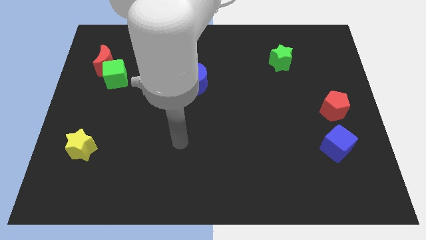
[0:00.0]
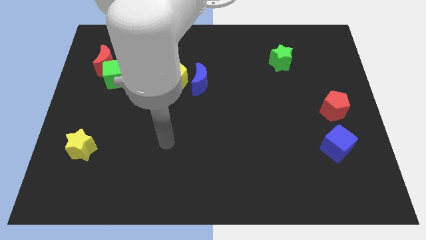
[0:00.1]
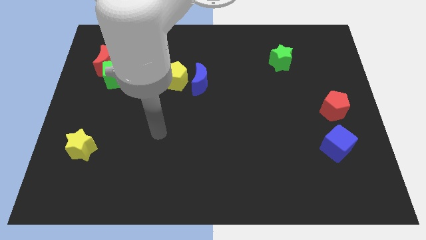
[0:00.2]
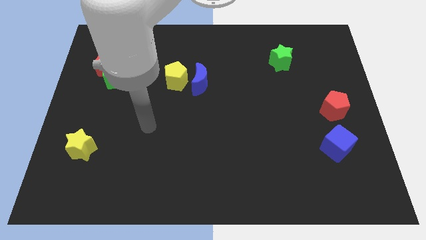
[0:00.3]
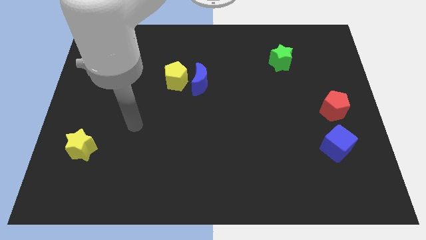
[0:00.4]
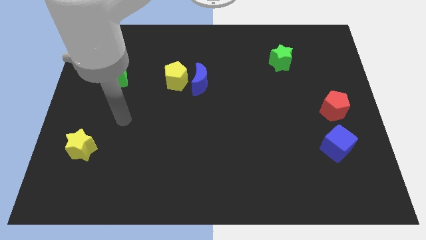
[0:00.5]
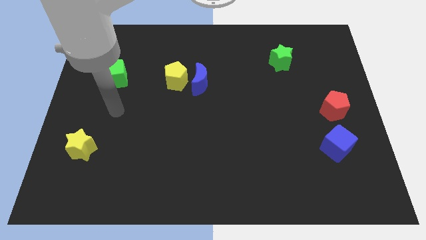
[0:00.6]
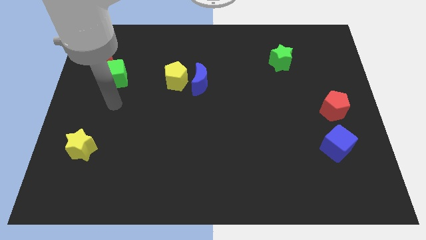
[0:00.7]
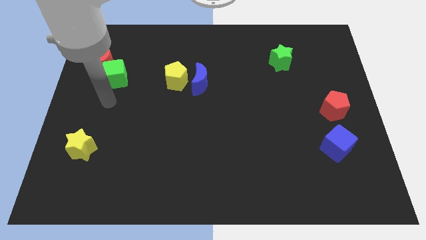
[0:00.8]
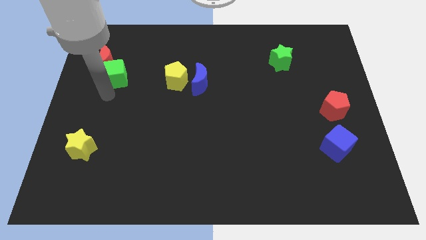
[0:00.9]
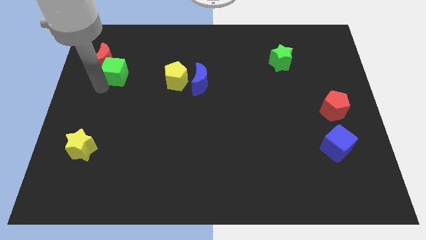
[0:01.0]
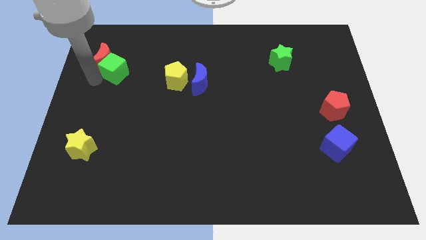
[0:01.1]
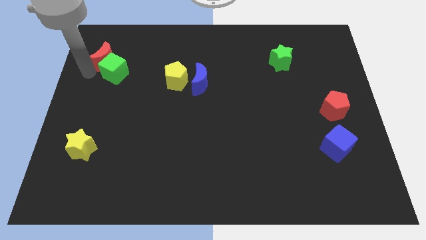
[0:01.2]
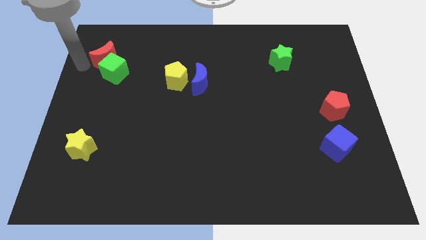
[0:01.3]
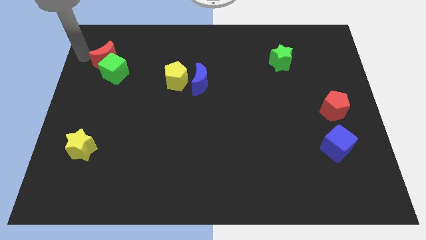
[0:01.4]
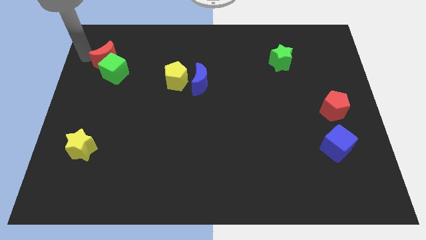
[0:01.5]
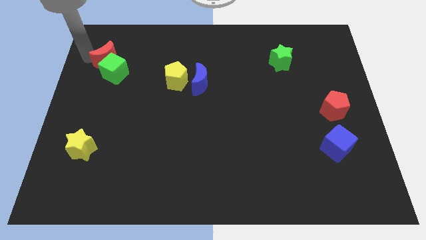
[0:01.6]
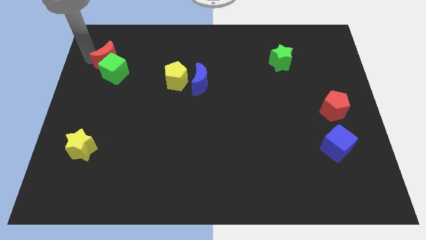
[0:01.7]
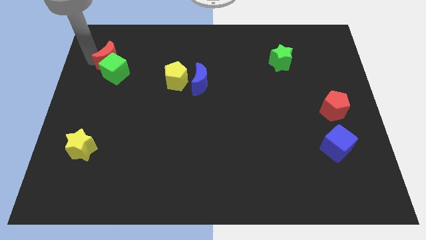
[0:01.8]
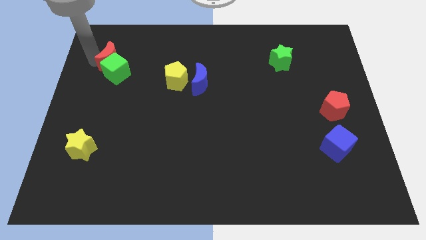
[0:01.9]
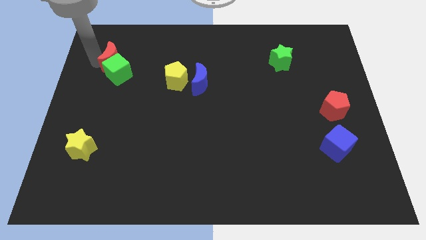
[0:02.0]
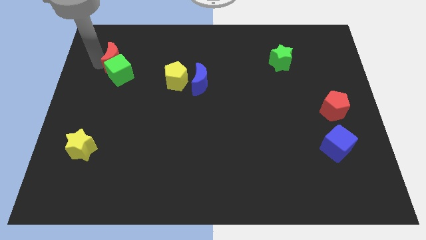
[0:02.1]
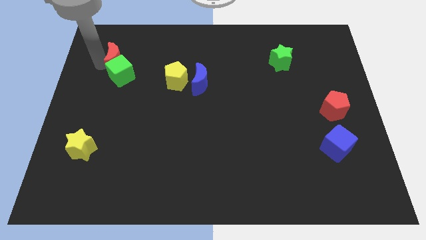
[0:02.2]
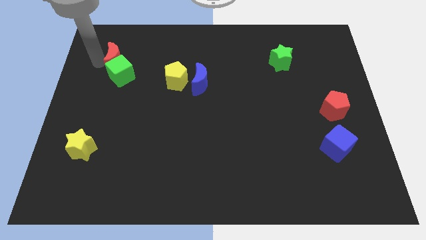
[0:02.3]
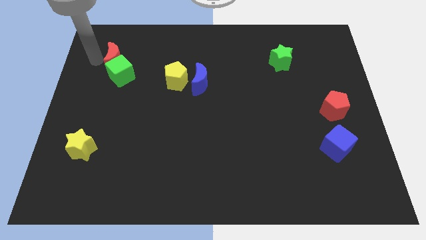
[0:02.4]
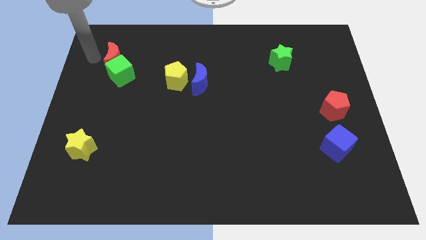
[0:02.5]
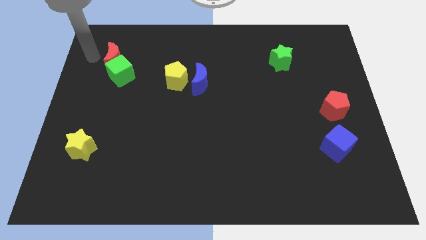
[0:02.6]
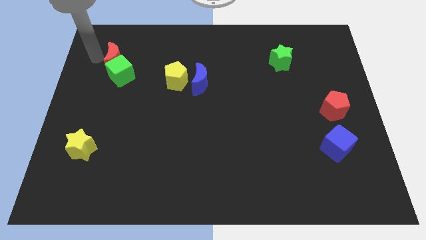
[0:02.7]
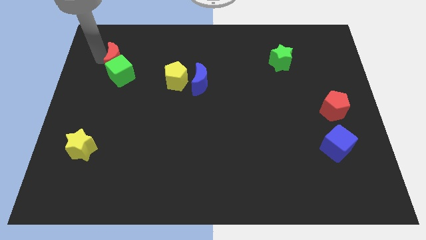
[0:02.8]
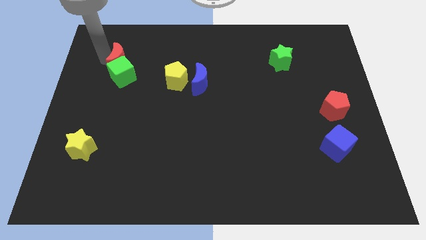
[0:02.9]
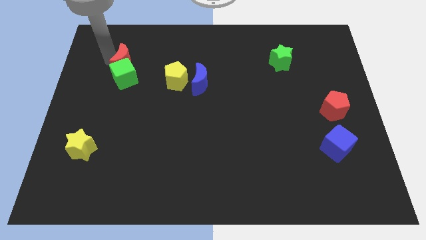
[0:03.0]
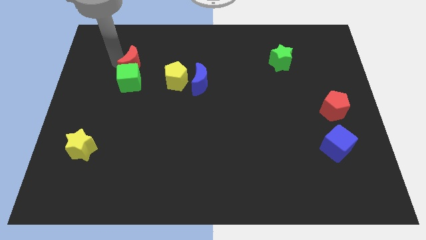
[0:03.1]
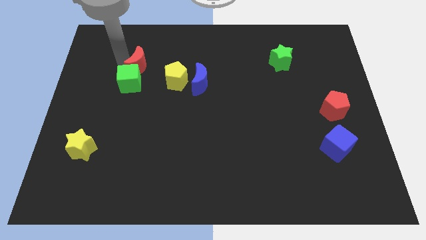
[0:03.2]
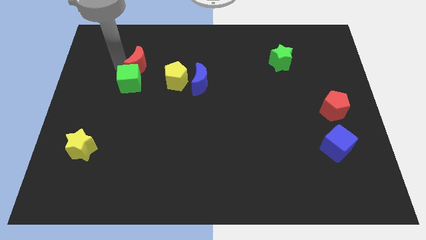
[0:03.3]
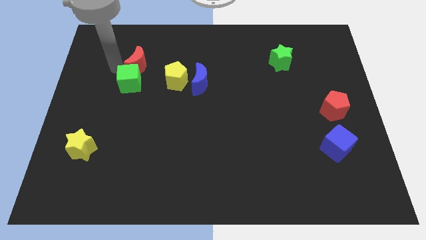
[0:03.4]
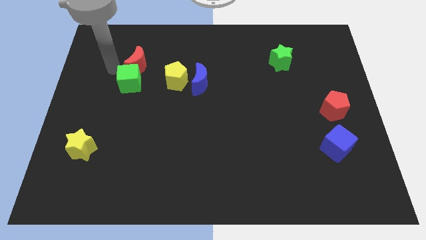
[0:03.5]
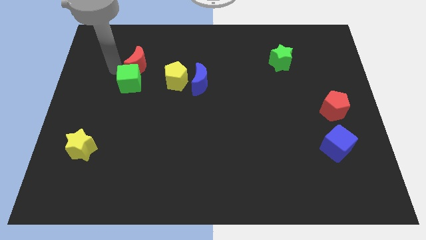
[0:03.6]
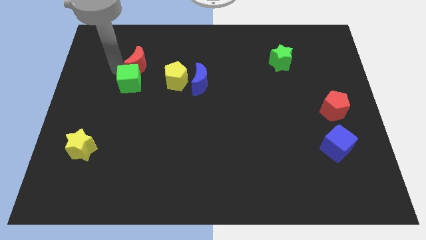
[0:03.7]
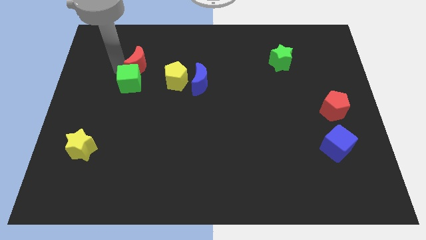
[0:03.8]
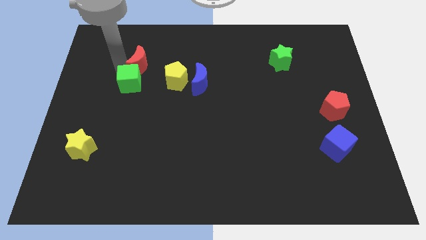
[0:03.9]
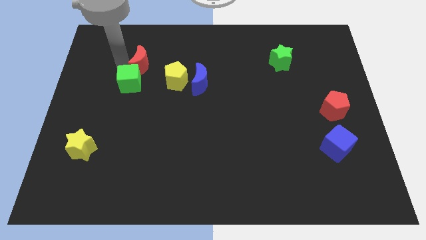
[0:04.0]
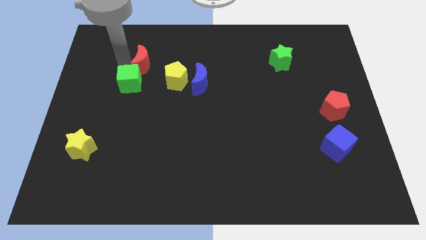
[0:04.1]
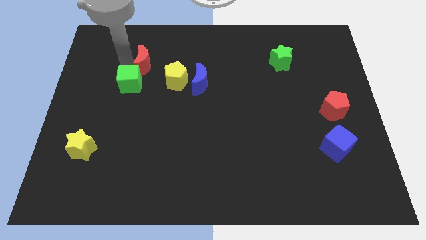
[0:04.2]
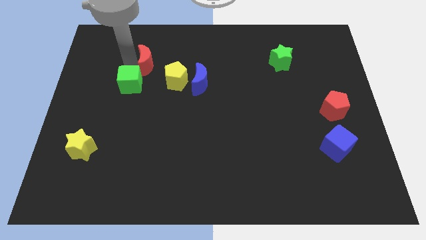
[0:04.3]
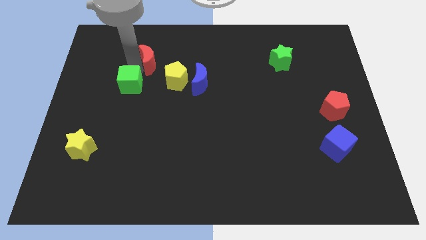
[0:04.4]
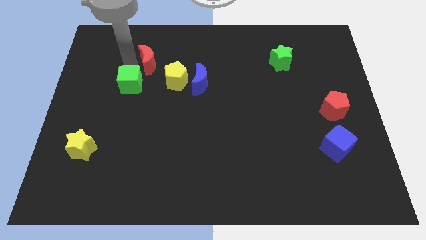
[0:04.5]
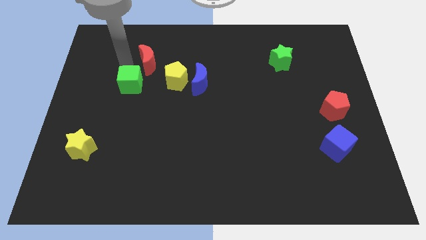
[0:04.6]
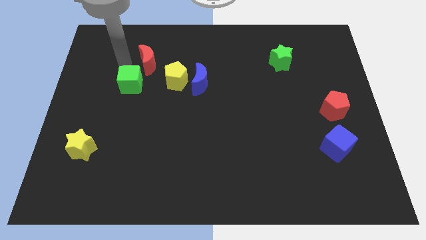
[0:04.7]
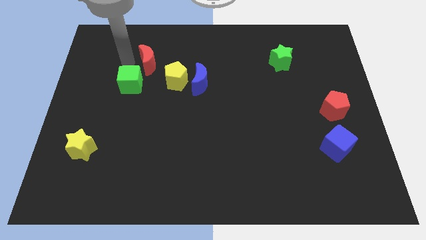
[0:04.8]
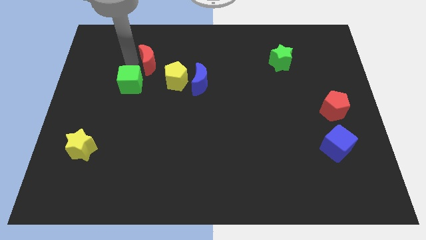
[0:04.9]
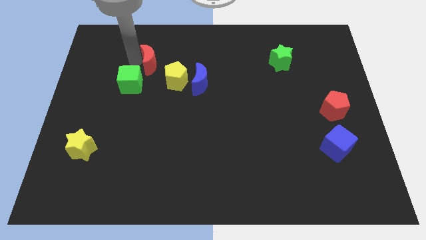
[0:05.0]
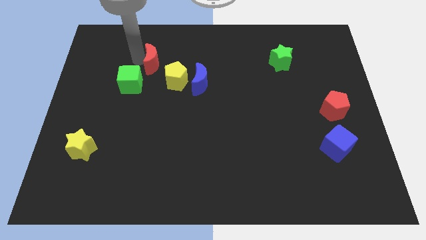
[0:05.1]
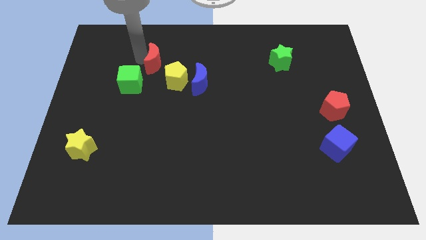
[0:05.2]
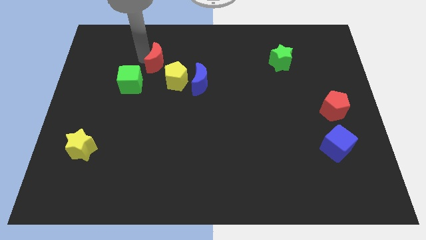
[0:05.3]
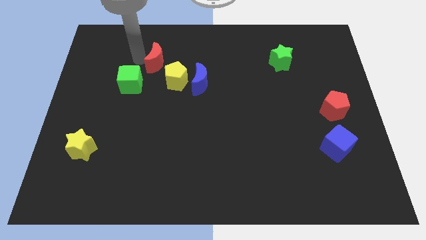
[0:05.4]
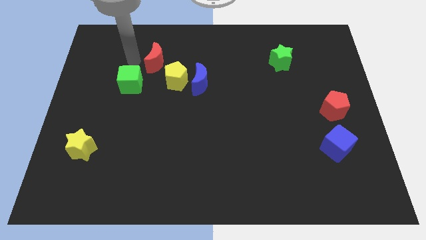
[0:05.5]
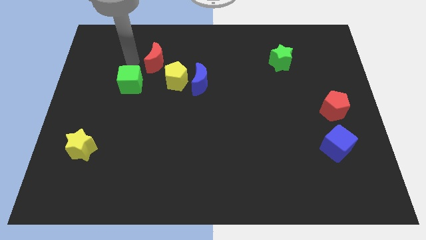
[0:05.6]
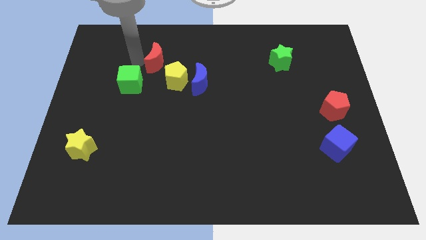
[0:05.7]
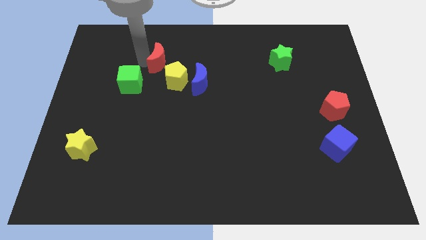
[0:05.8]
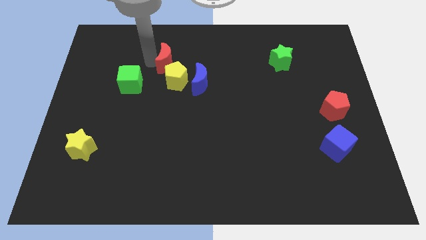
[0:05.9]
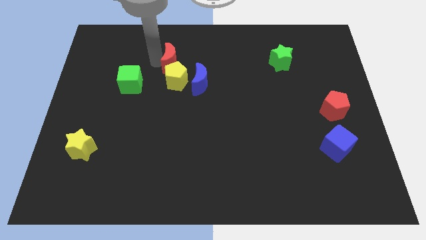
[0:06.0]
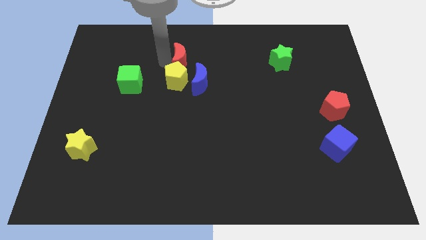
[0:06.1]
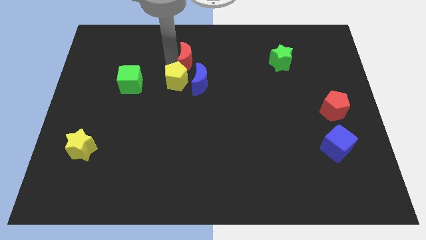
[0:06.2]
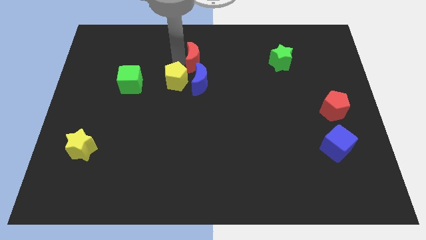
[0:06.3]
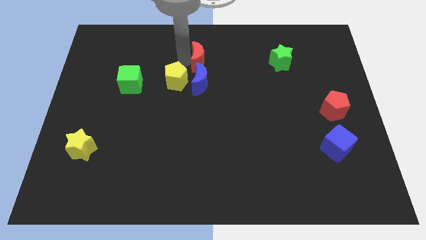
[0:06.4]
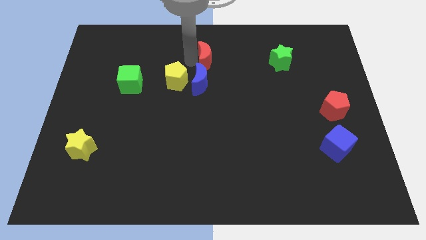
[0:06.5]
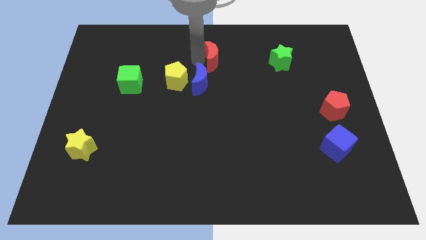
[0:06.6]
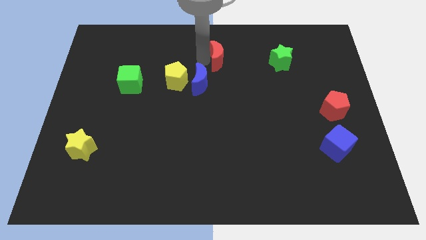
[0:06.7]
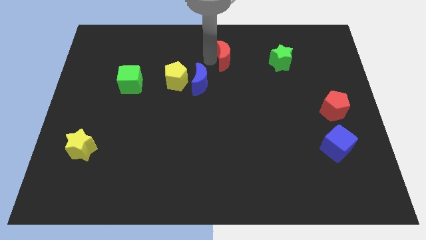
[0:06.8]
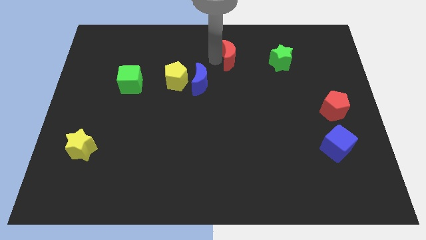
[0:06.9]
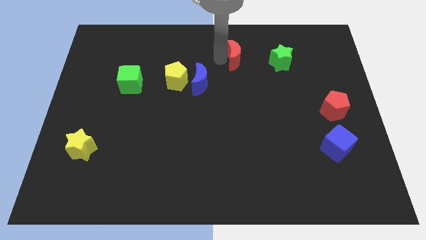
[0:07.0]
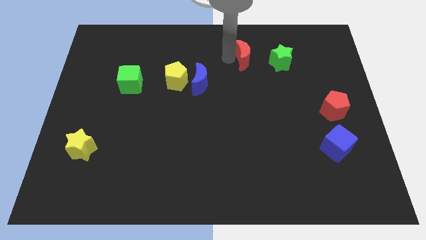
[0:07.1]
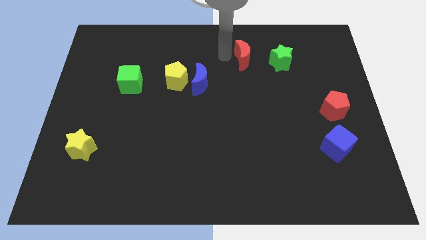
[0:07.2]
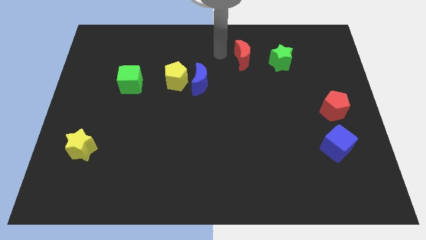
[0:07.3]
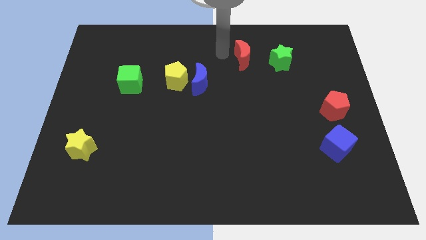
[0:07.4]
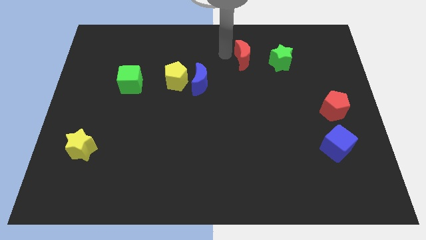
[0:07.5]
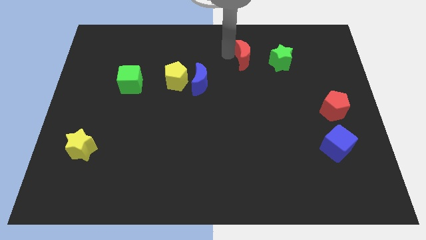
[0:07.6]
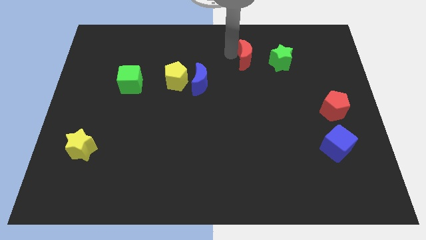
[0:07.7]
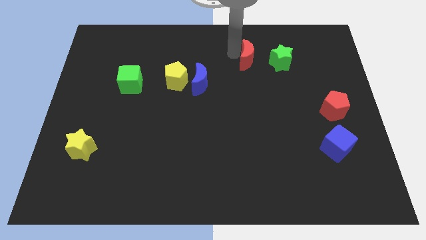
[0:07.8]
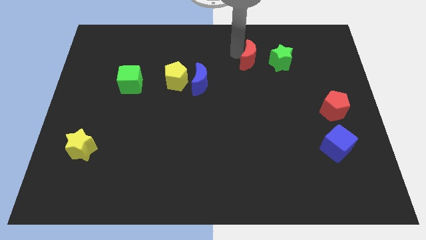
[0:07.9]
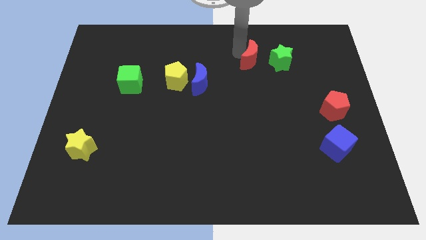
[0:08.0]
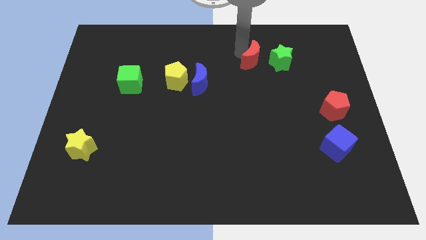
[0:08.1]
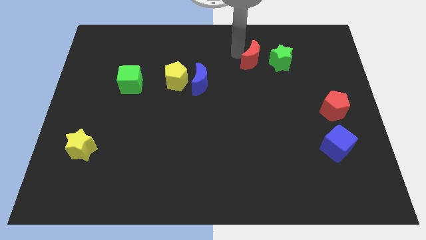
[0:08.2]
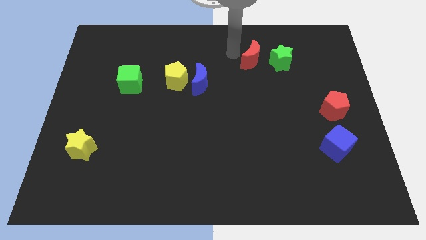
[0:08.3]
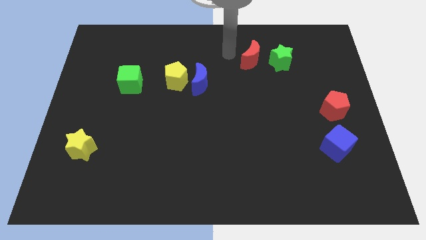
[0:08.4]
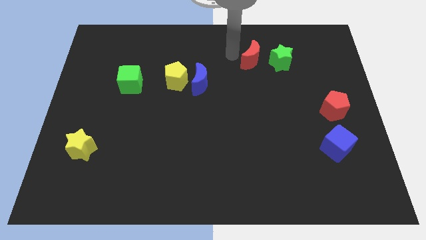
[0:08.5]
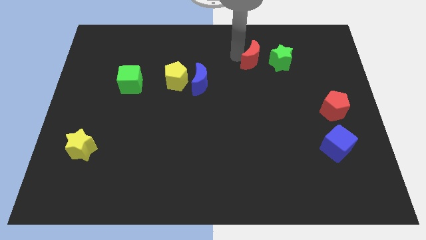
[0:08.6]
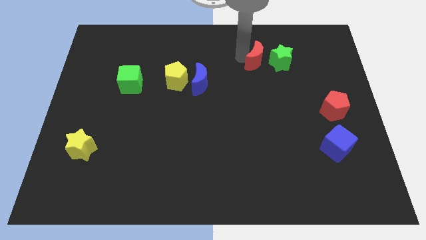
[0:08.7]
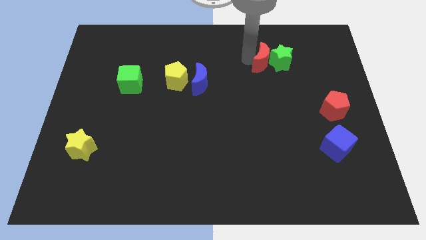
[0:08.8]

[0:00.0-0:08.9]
put the red moon next to the green star
